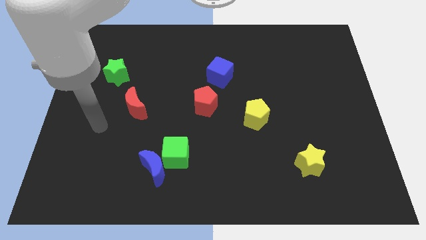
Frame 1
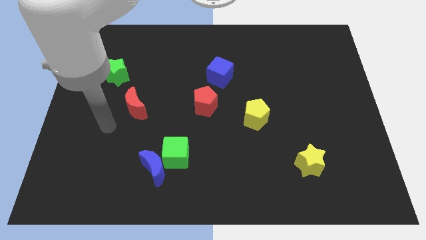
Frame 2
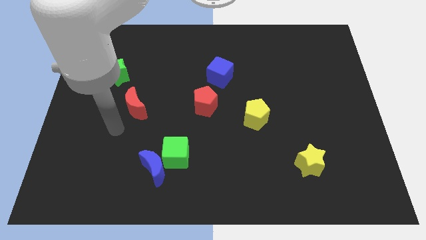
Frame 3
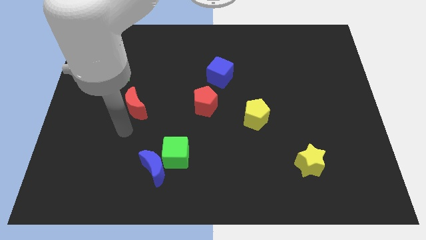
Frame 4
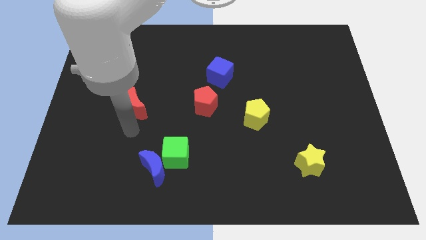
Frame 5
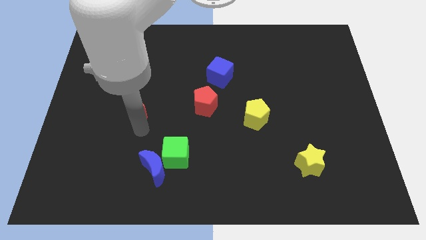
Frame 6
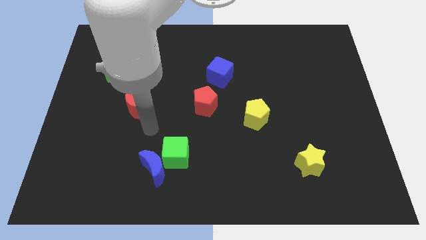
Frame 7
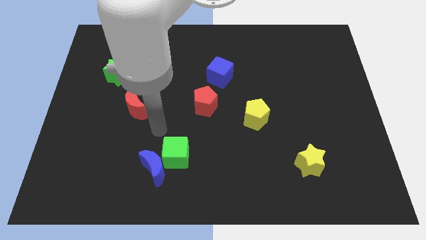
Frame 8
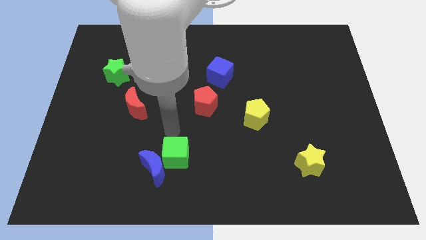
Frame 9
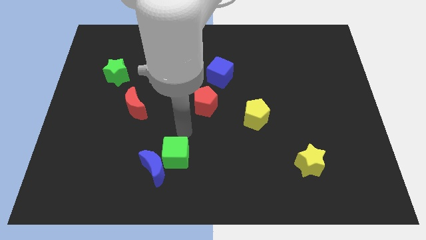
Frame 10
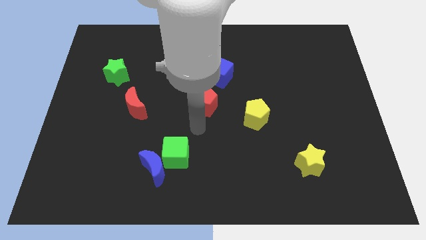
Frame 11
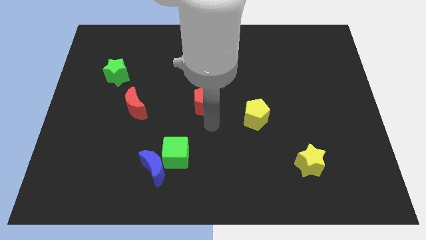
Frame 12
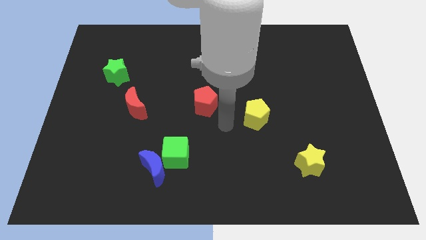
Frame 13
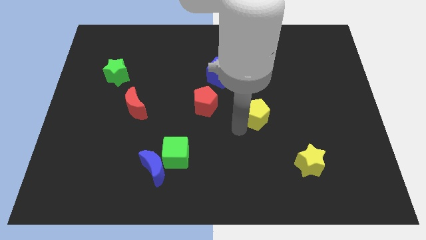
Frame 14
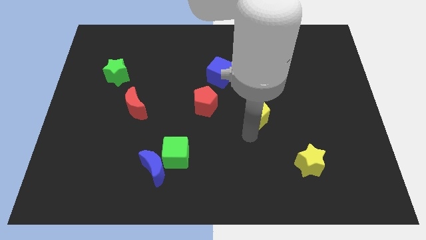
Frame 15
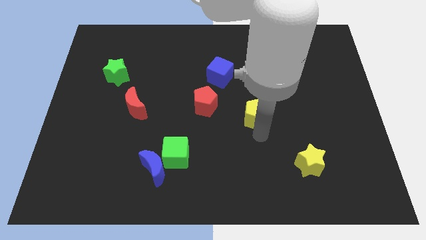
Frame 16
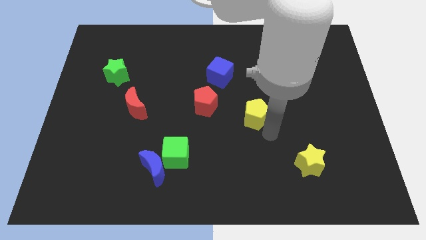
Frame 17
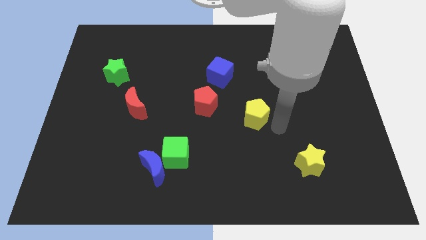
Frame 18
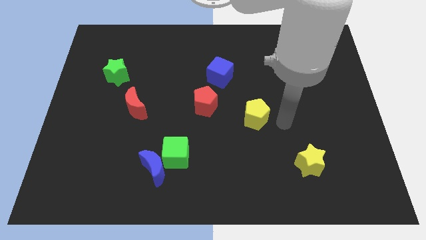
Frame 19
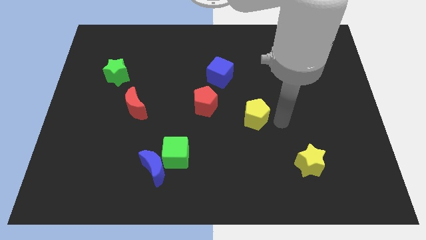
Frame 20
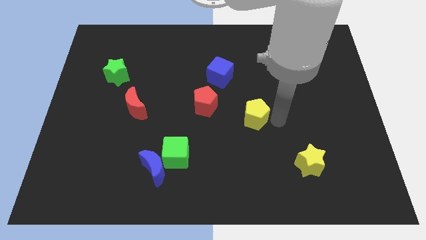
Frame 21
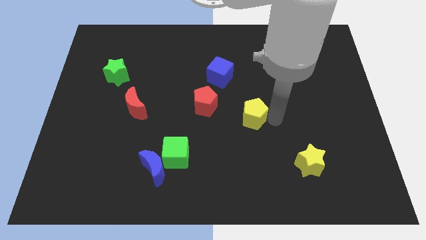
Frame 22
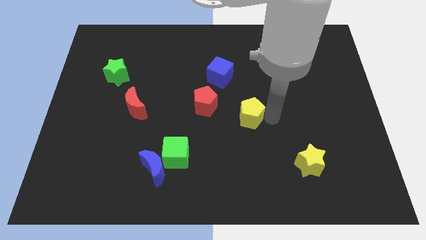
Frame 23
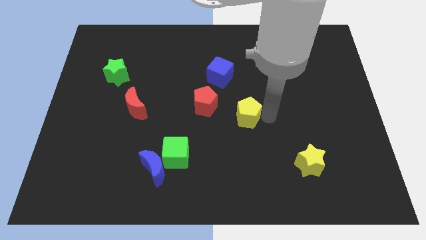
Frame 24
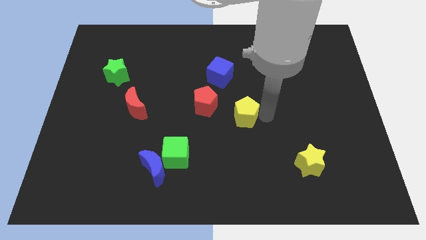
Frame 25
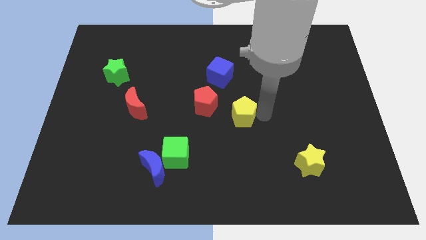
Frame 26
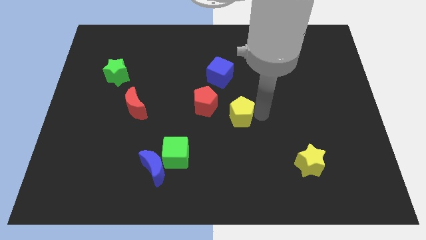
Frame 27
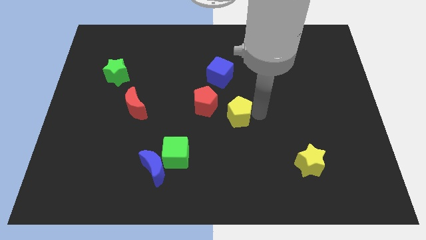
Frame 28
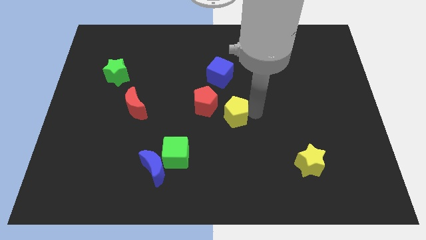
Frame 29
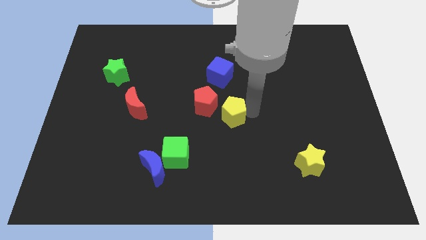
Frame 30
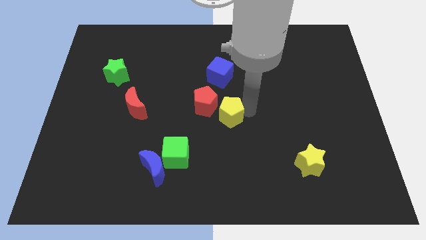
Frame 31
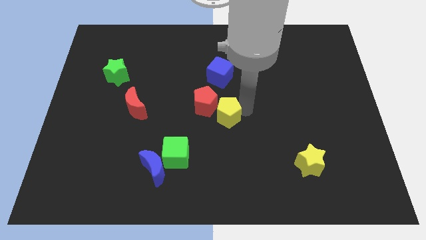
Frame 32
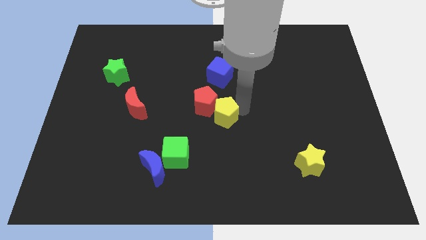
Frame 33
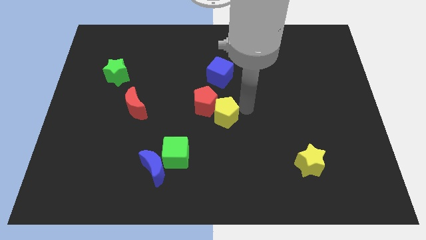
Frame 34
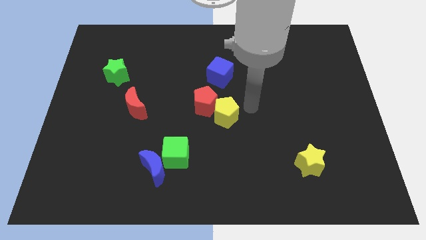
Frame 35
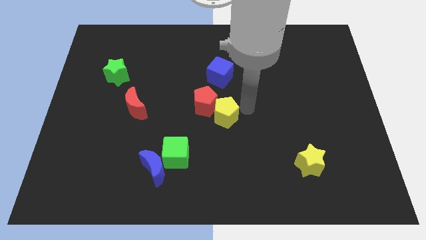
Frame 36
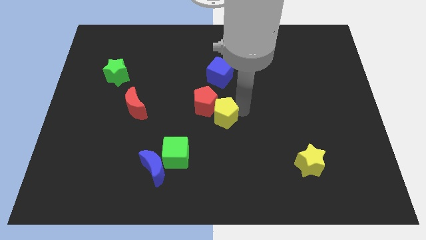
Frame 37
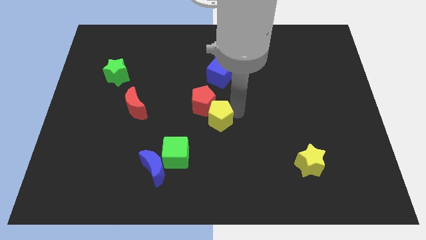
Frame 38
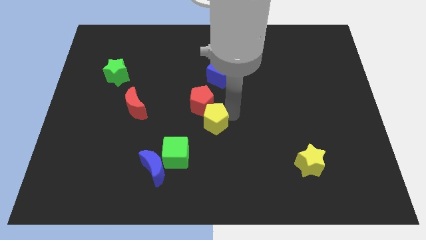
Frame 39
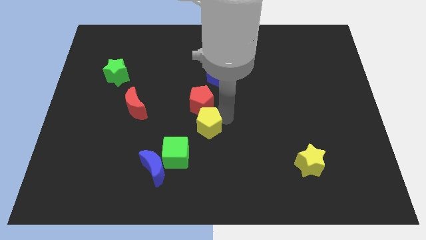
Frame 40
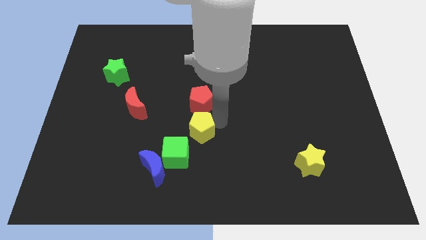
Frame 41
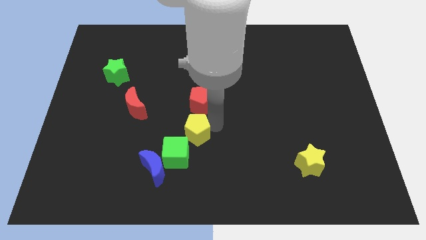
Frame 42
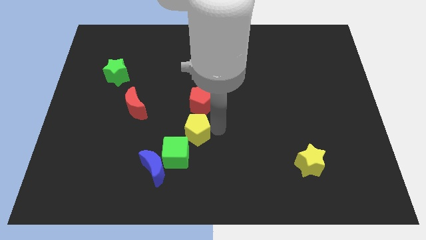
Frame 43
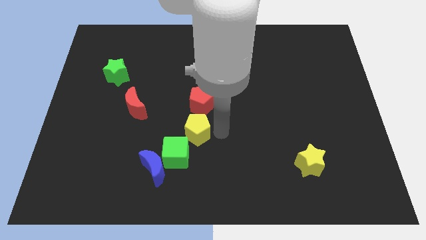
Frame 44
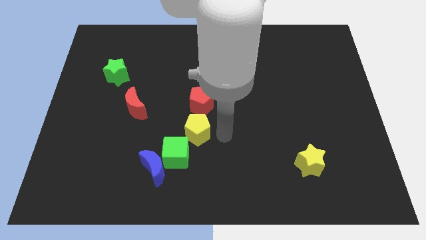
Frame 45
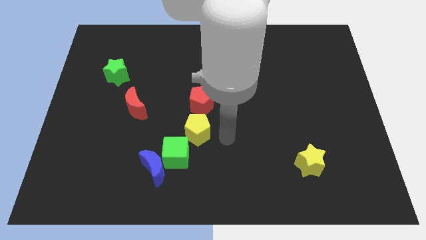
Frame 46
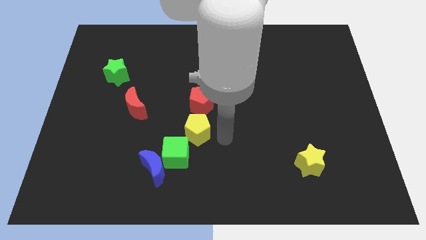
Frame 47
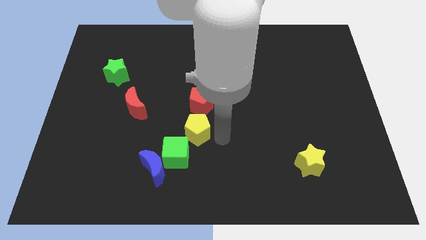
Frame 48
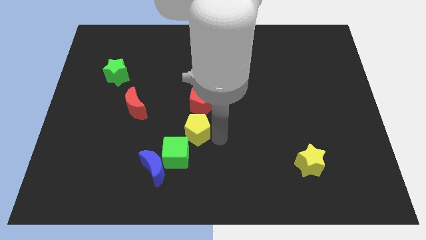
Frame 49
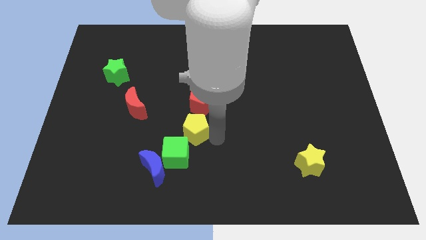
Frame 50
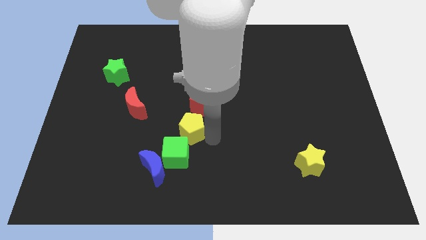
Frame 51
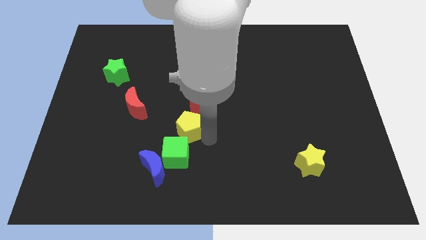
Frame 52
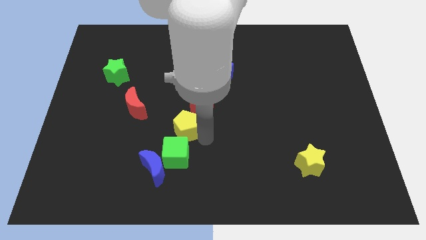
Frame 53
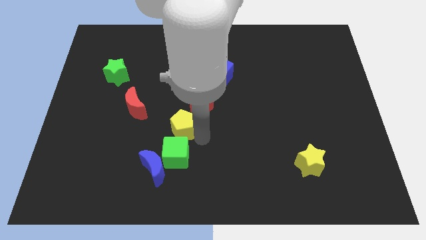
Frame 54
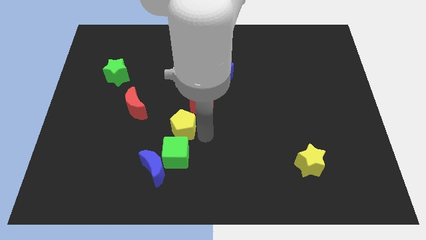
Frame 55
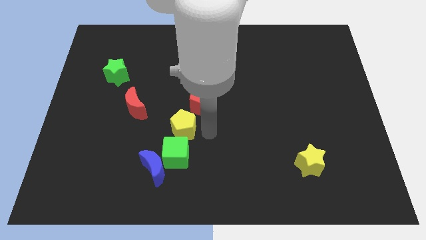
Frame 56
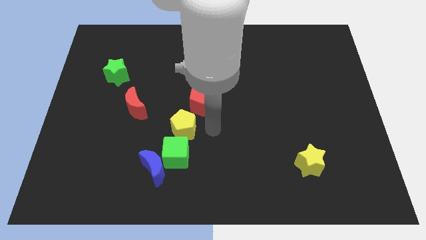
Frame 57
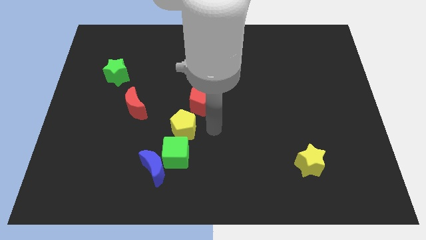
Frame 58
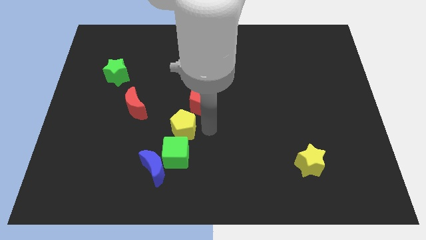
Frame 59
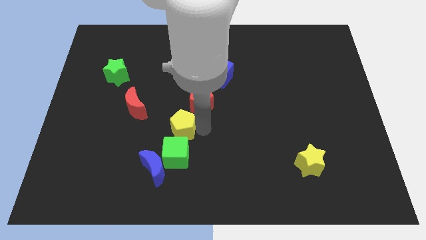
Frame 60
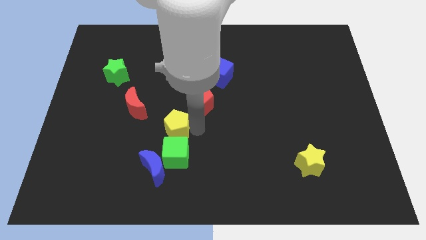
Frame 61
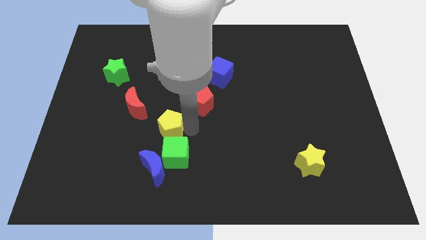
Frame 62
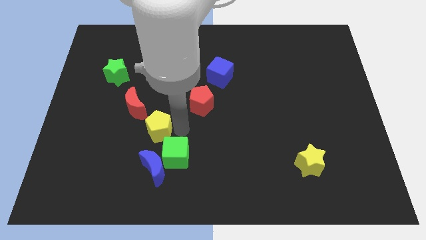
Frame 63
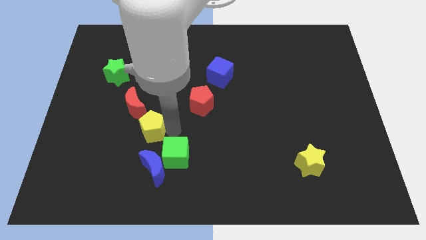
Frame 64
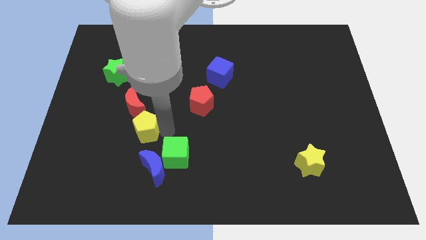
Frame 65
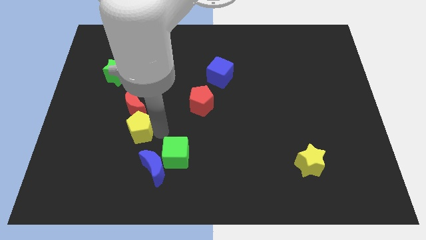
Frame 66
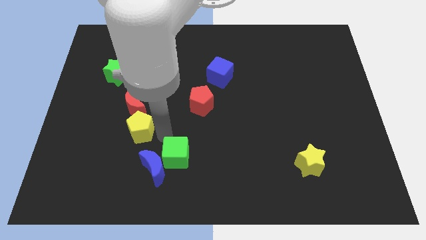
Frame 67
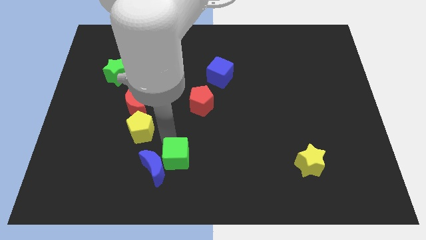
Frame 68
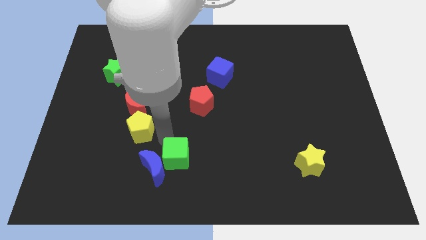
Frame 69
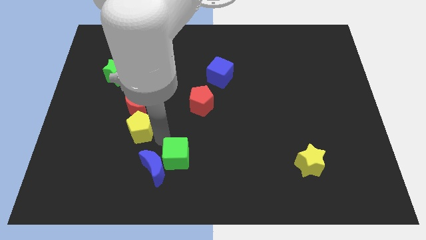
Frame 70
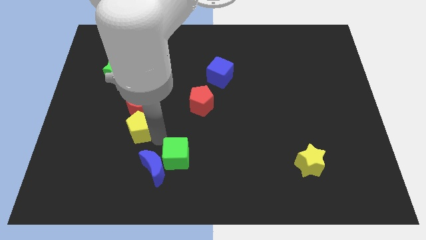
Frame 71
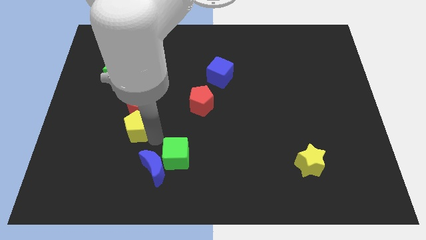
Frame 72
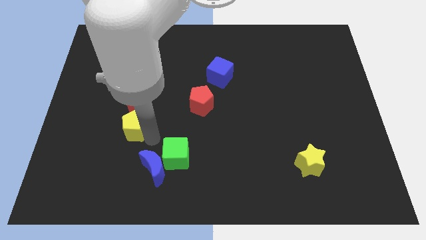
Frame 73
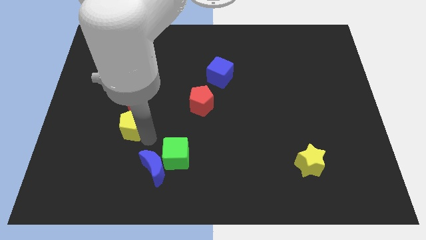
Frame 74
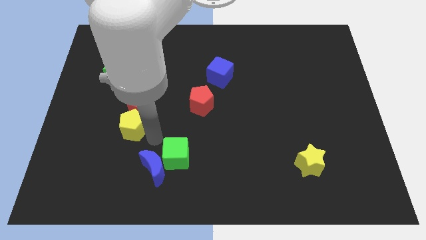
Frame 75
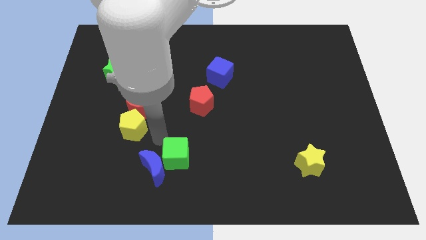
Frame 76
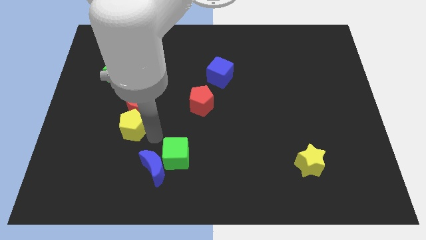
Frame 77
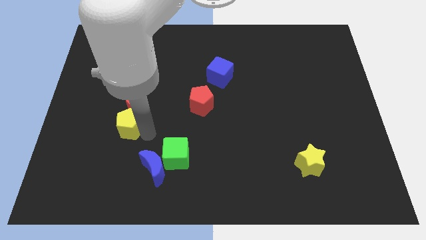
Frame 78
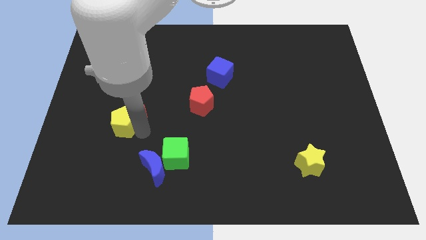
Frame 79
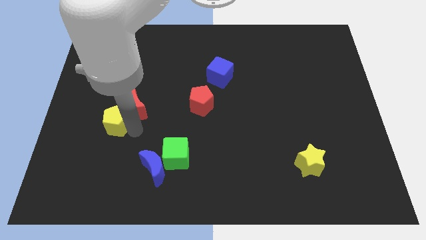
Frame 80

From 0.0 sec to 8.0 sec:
move the yellow pentagon to the bottom of the green star
